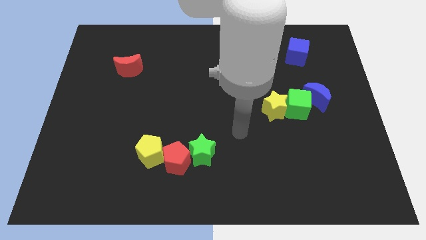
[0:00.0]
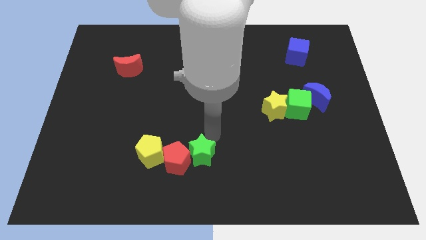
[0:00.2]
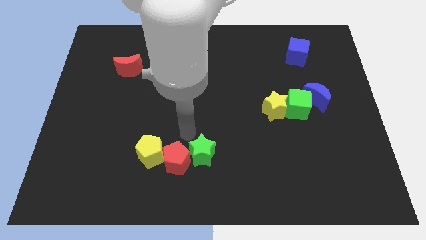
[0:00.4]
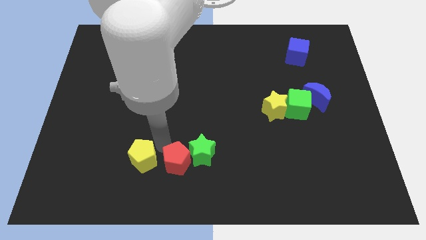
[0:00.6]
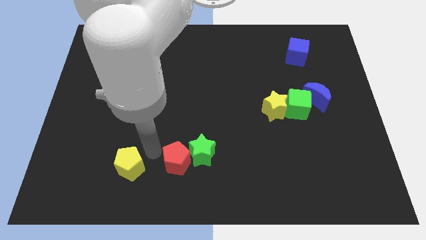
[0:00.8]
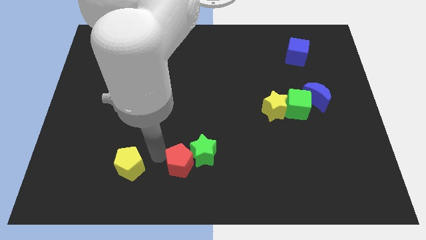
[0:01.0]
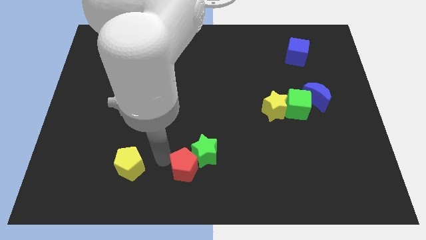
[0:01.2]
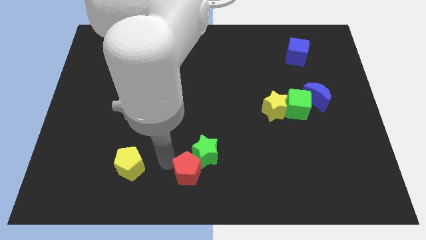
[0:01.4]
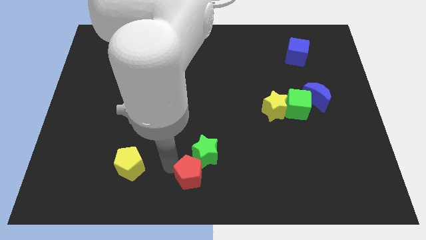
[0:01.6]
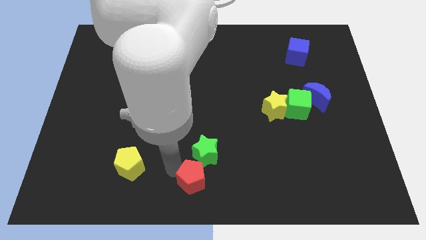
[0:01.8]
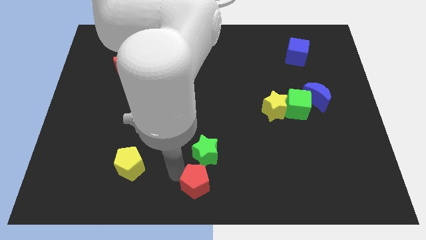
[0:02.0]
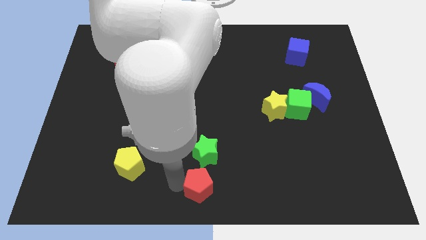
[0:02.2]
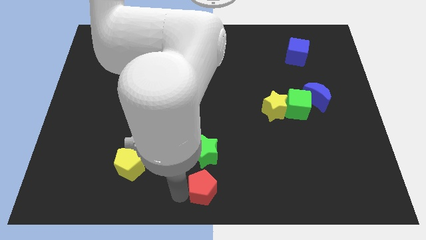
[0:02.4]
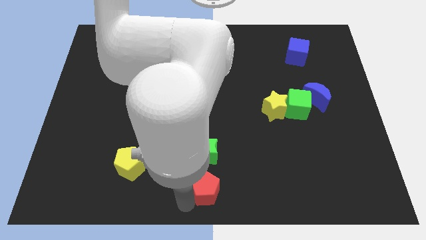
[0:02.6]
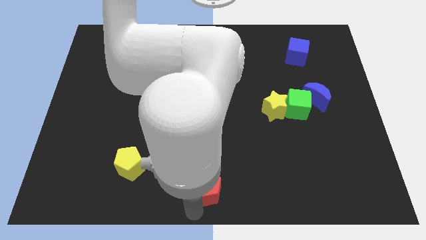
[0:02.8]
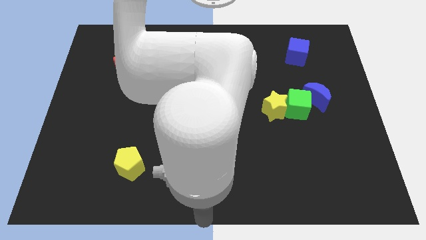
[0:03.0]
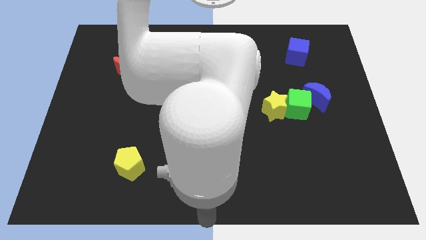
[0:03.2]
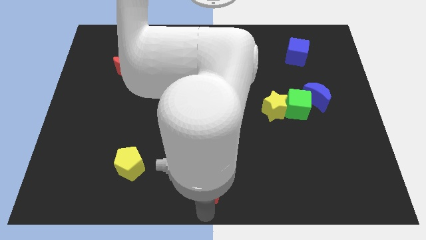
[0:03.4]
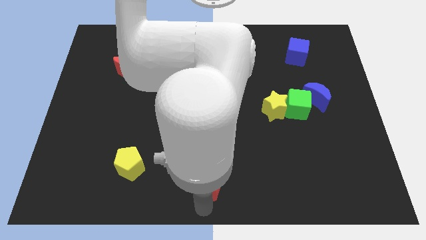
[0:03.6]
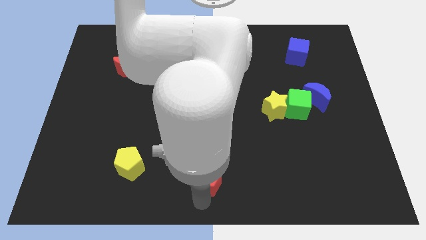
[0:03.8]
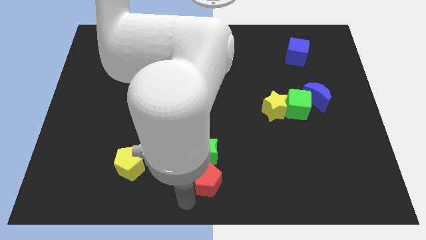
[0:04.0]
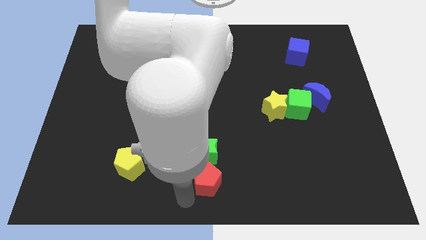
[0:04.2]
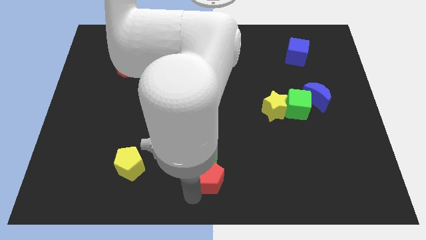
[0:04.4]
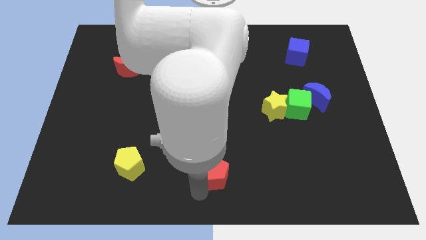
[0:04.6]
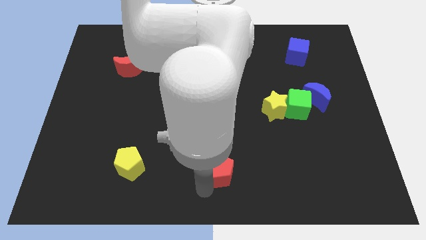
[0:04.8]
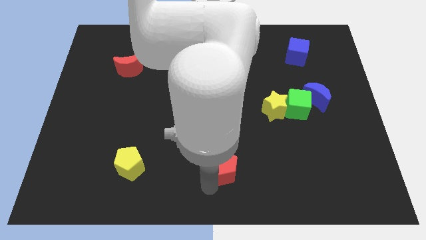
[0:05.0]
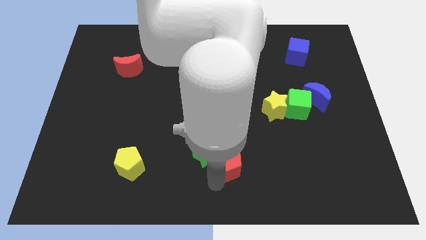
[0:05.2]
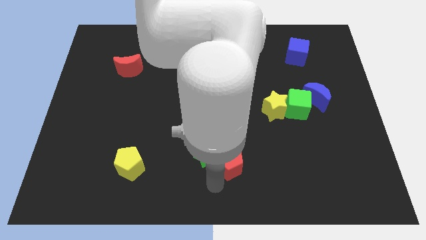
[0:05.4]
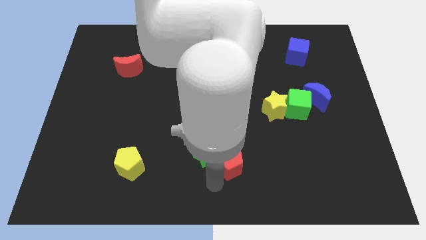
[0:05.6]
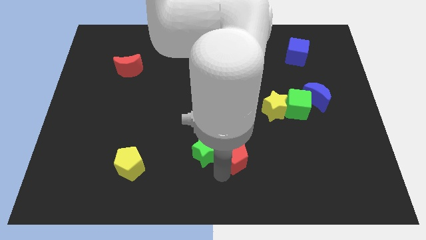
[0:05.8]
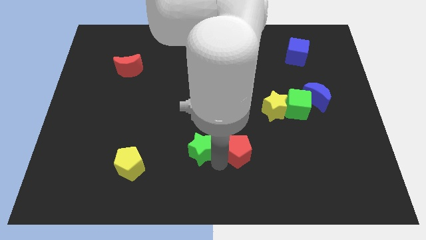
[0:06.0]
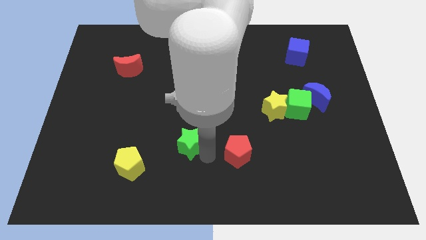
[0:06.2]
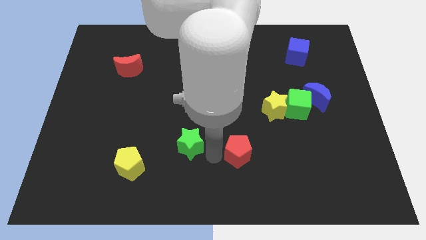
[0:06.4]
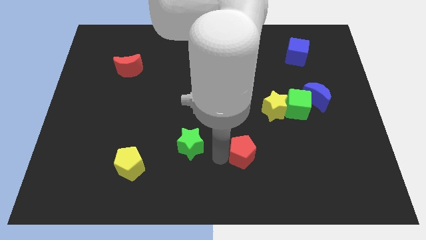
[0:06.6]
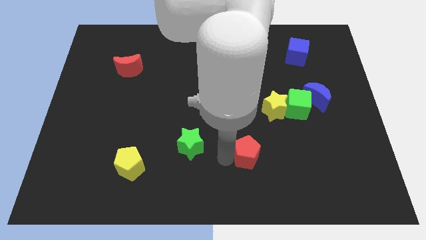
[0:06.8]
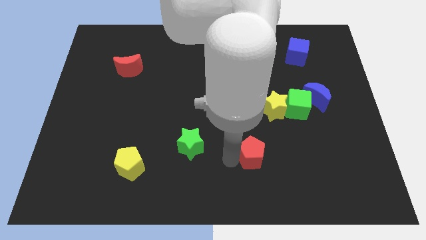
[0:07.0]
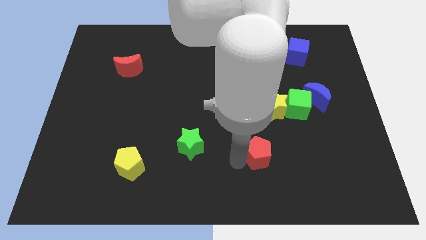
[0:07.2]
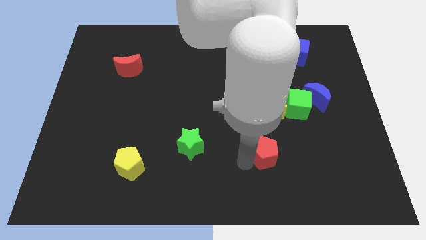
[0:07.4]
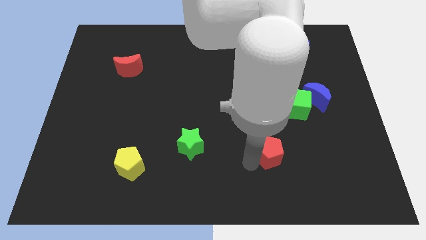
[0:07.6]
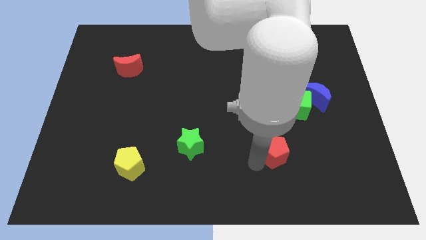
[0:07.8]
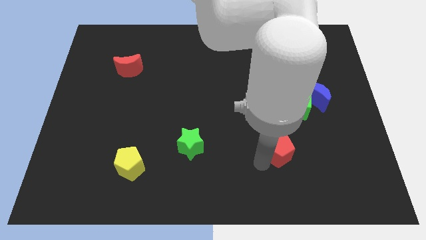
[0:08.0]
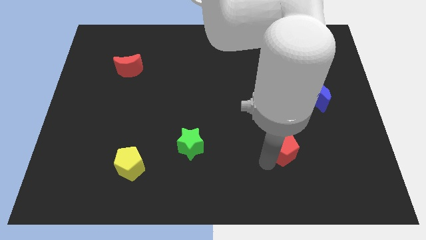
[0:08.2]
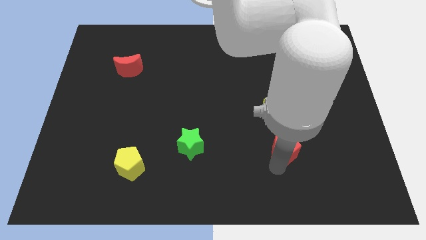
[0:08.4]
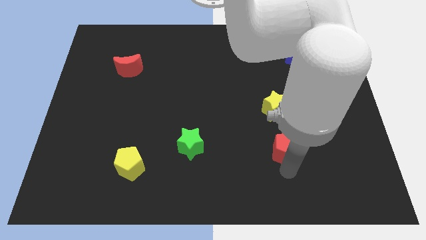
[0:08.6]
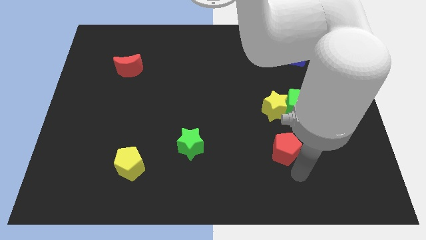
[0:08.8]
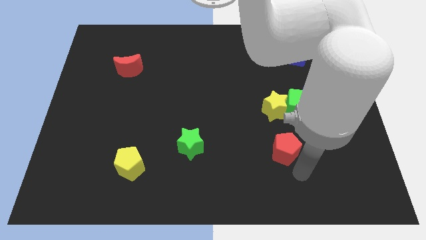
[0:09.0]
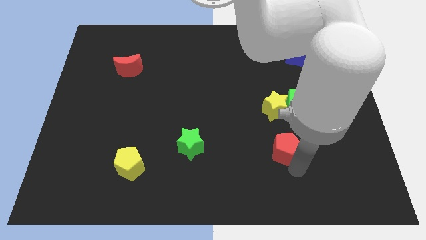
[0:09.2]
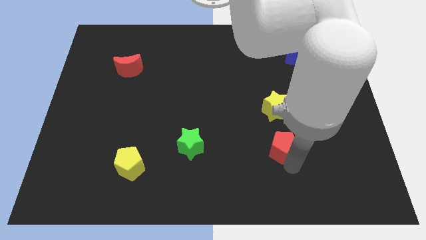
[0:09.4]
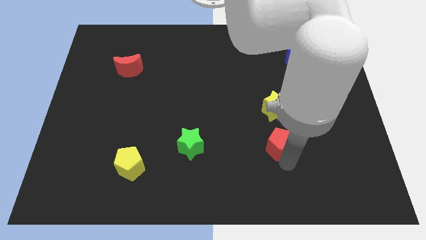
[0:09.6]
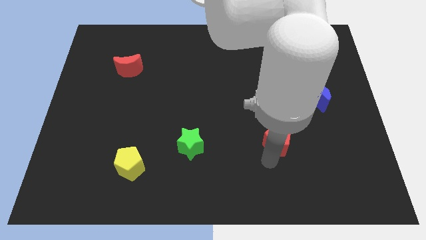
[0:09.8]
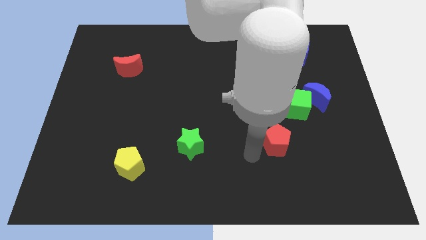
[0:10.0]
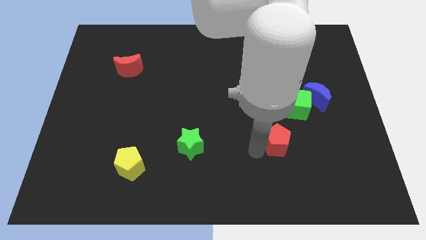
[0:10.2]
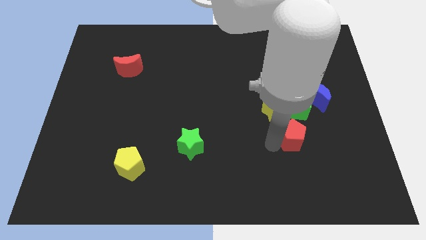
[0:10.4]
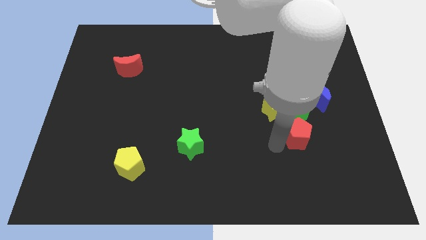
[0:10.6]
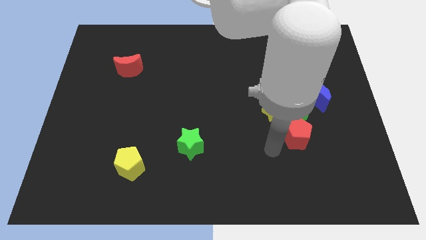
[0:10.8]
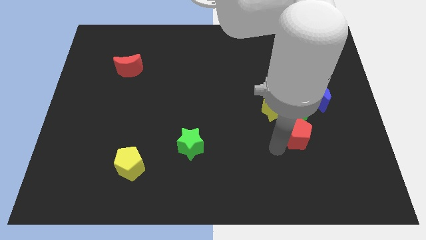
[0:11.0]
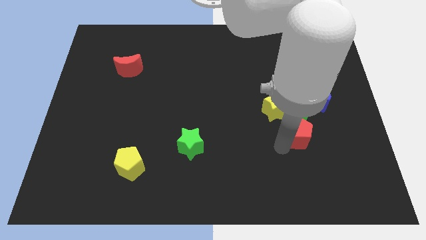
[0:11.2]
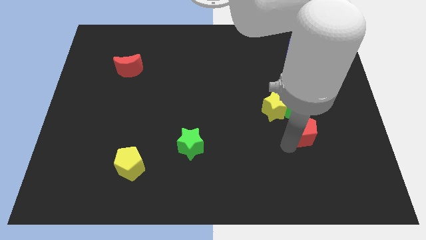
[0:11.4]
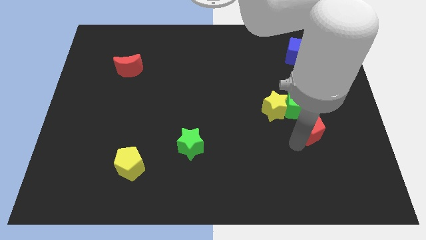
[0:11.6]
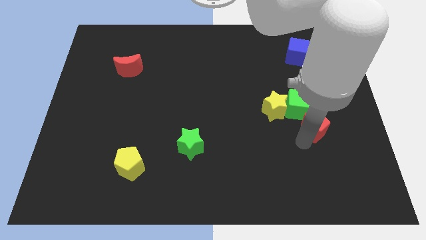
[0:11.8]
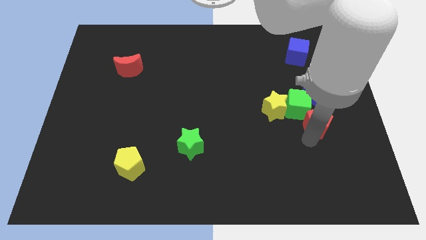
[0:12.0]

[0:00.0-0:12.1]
slide the red pentagon just right of the yellow star

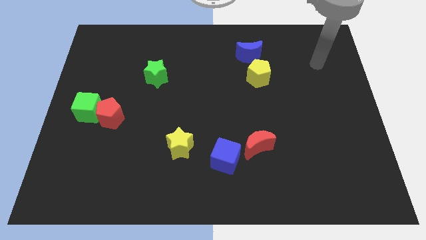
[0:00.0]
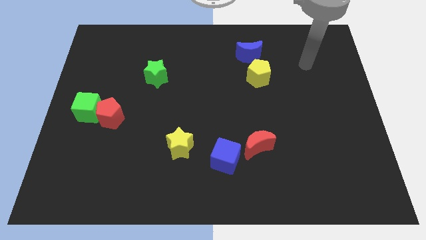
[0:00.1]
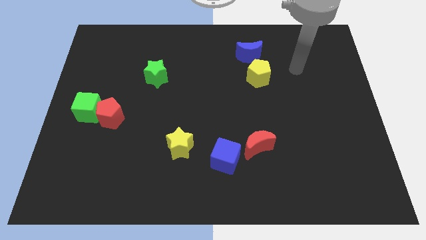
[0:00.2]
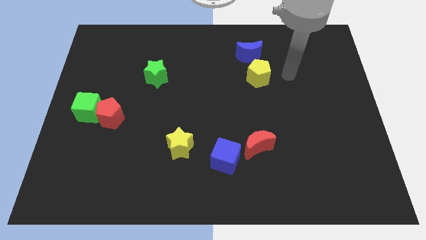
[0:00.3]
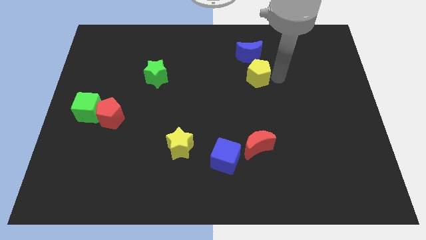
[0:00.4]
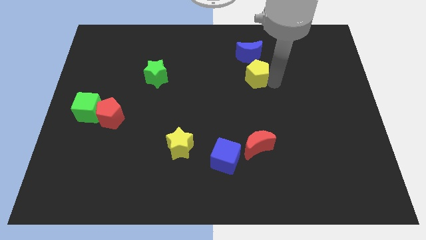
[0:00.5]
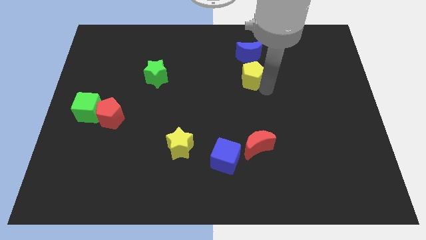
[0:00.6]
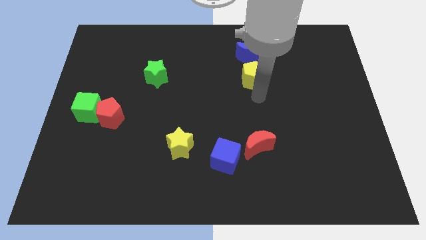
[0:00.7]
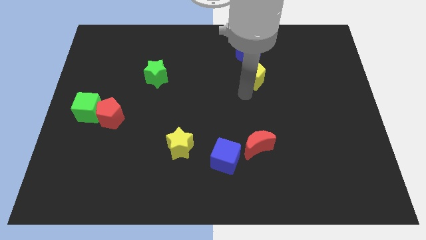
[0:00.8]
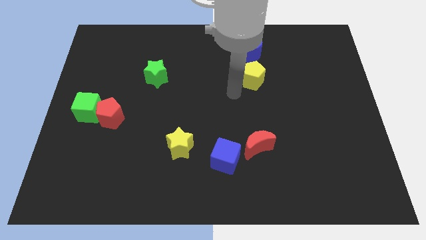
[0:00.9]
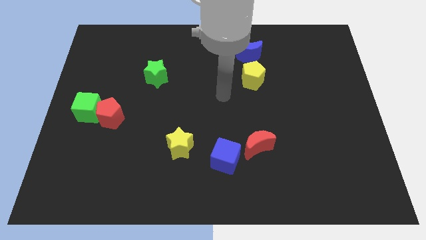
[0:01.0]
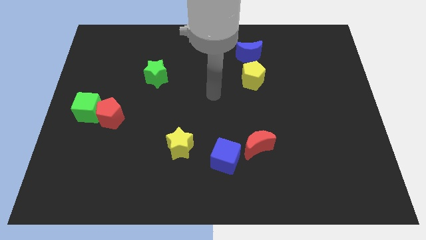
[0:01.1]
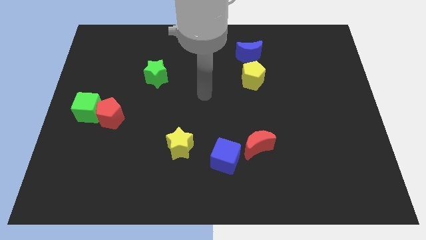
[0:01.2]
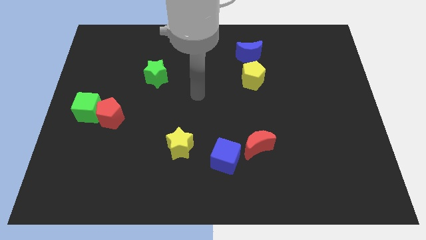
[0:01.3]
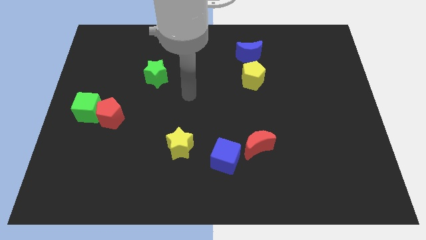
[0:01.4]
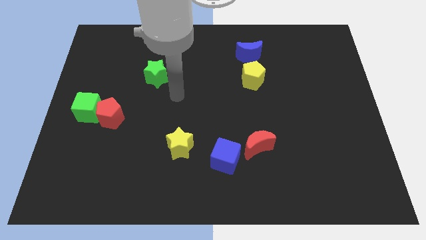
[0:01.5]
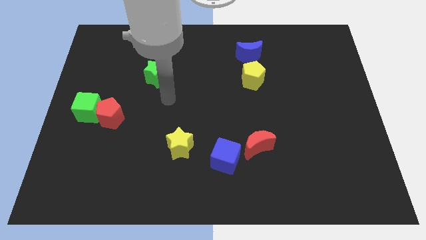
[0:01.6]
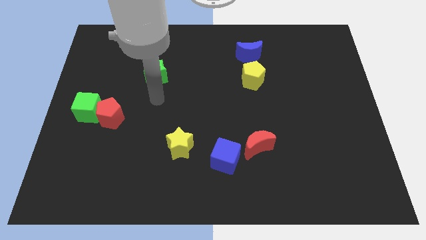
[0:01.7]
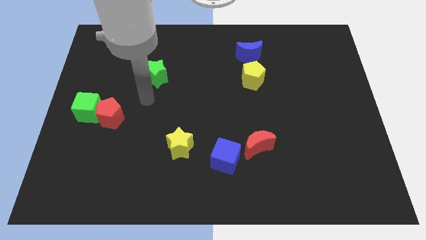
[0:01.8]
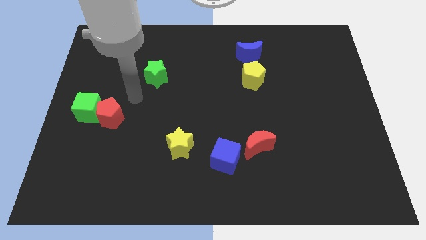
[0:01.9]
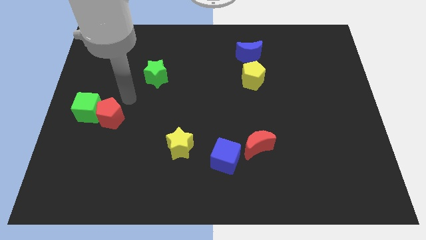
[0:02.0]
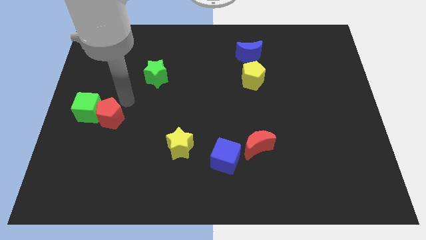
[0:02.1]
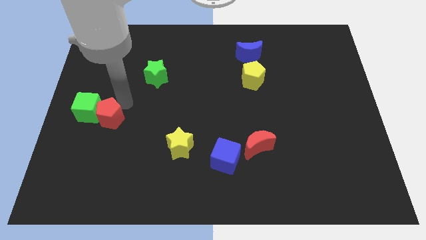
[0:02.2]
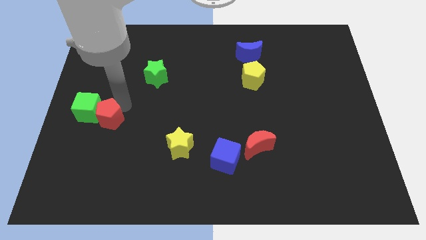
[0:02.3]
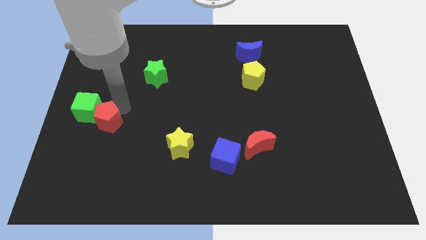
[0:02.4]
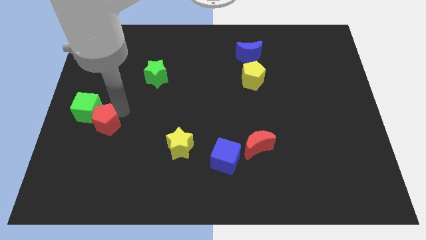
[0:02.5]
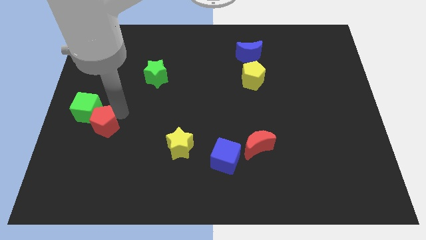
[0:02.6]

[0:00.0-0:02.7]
put the red pentagon to the bottom side of the green cube
